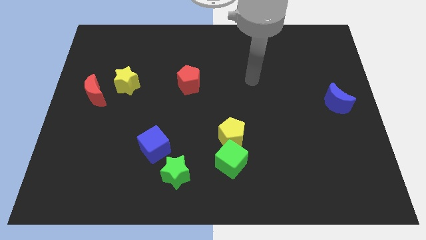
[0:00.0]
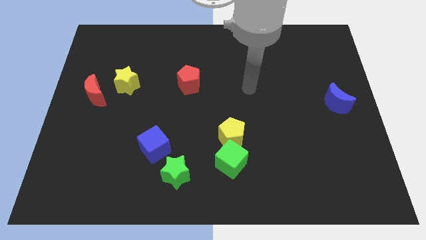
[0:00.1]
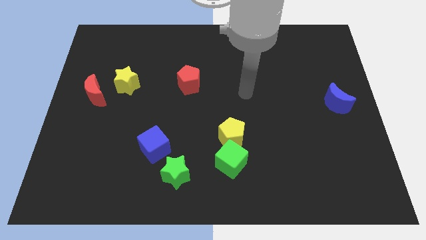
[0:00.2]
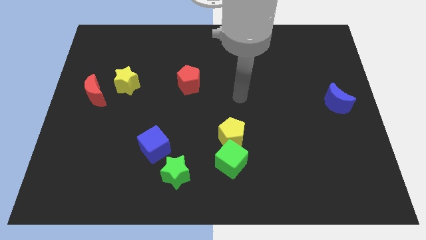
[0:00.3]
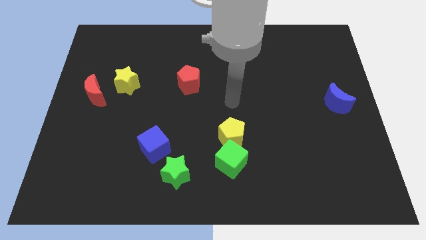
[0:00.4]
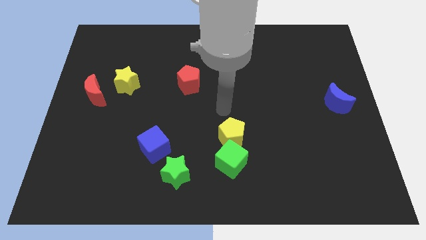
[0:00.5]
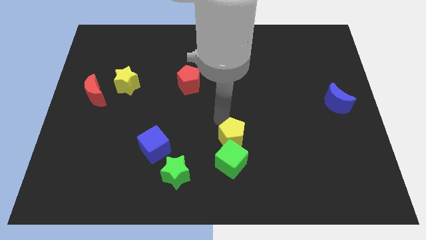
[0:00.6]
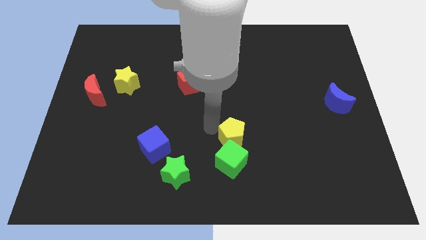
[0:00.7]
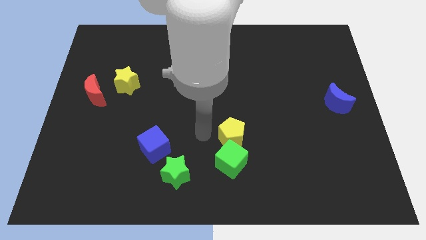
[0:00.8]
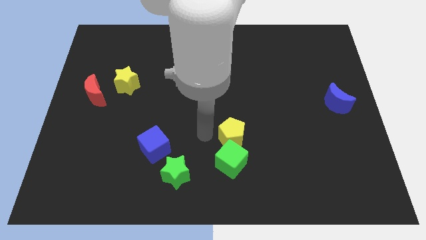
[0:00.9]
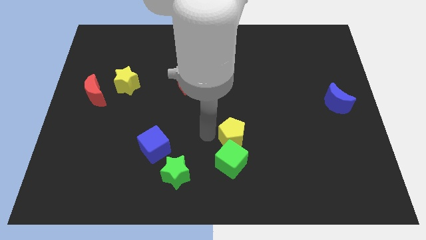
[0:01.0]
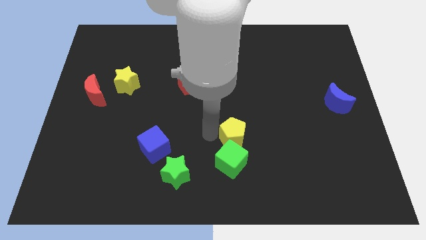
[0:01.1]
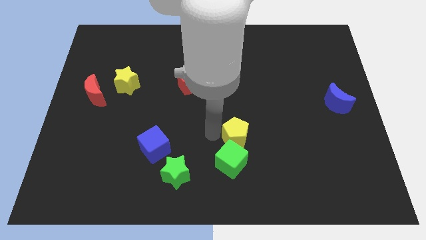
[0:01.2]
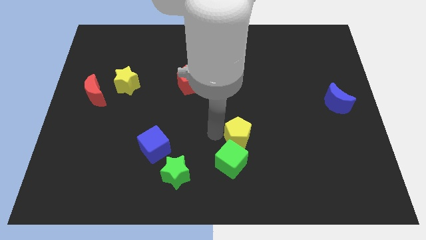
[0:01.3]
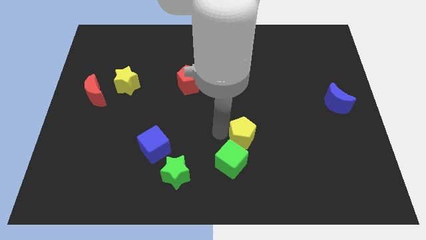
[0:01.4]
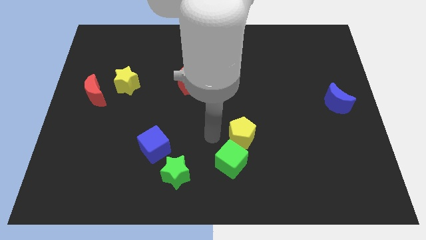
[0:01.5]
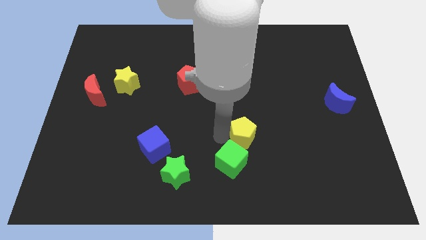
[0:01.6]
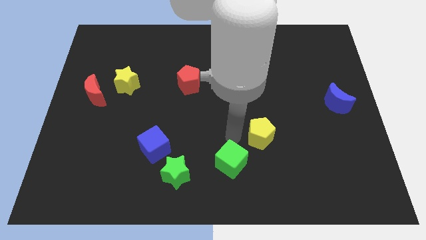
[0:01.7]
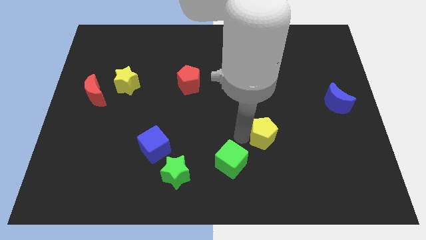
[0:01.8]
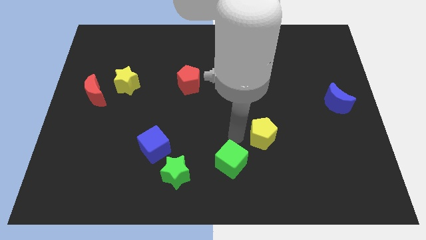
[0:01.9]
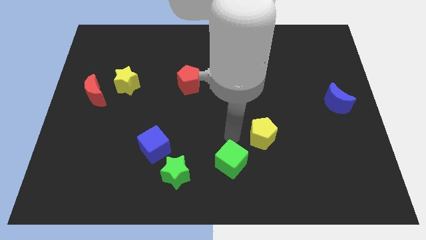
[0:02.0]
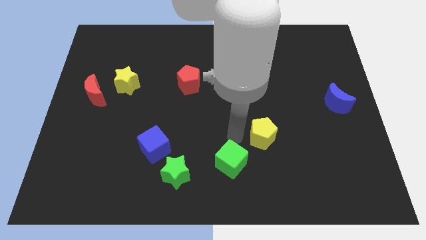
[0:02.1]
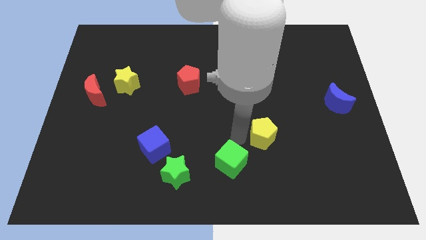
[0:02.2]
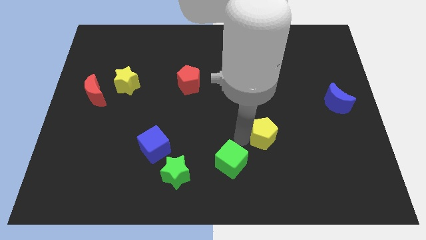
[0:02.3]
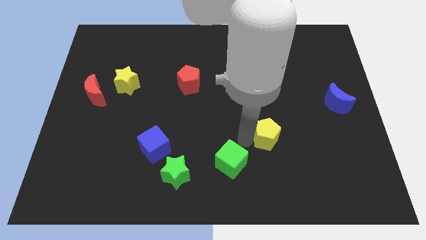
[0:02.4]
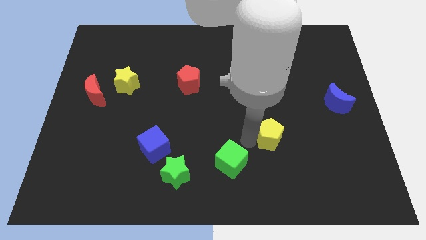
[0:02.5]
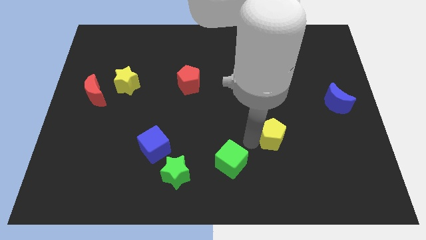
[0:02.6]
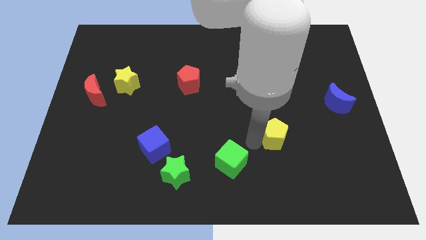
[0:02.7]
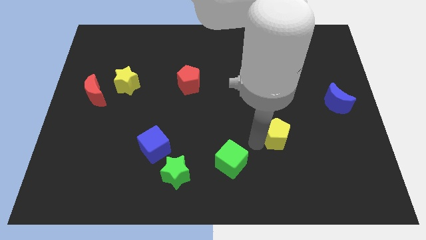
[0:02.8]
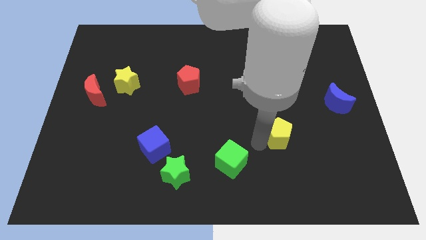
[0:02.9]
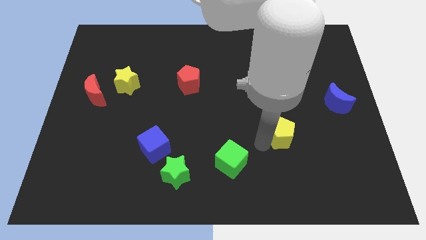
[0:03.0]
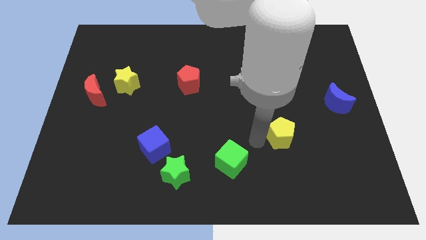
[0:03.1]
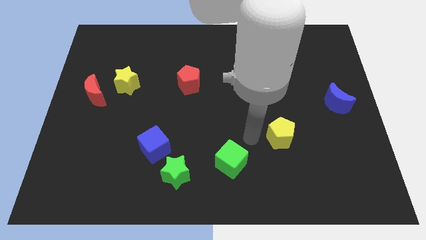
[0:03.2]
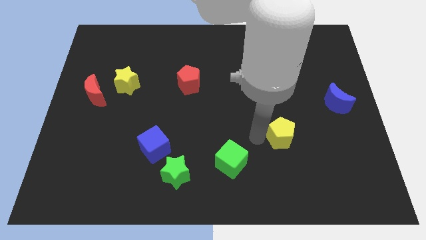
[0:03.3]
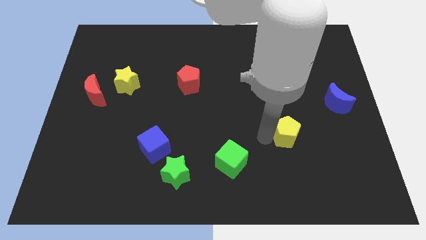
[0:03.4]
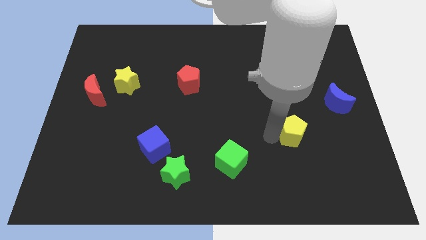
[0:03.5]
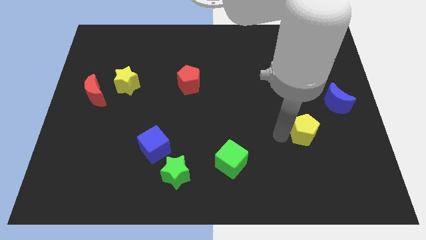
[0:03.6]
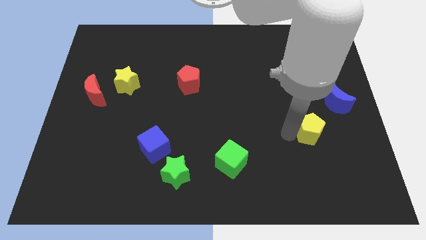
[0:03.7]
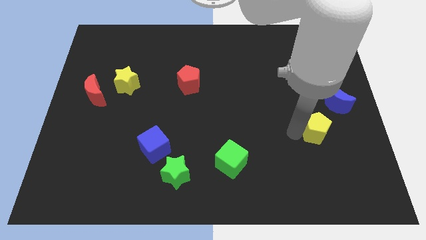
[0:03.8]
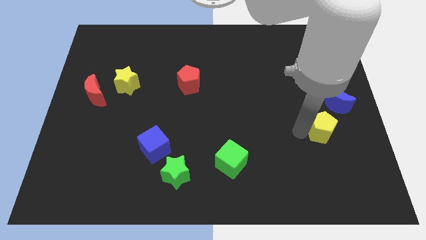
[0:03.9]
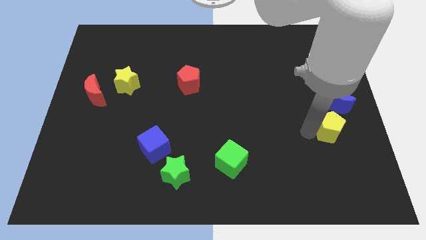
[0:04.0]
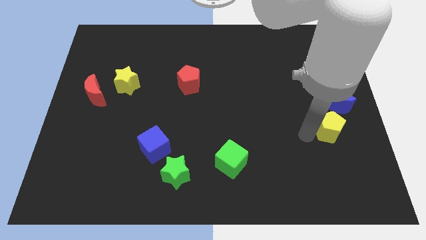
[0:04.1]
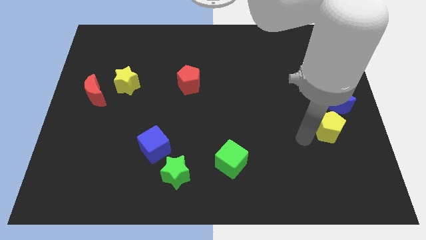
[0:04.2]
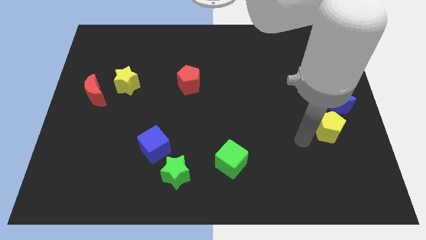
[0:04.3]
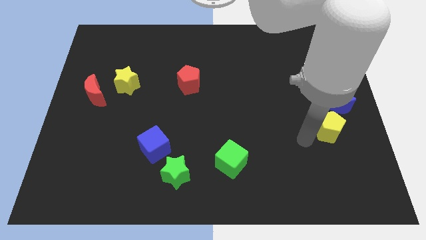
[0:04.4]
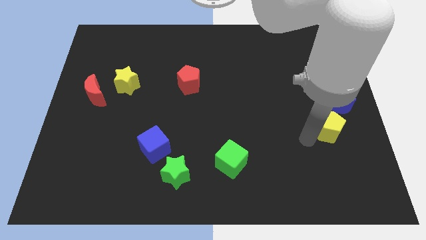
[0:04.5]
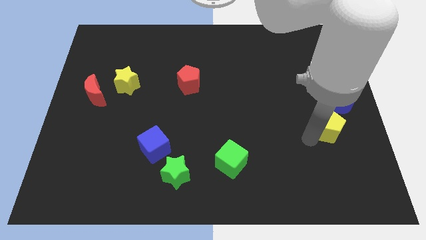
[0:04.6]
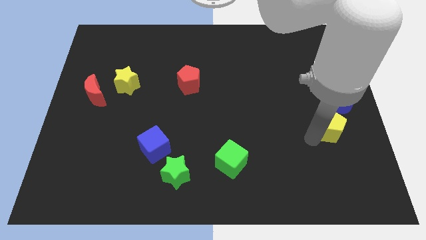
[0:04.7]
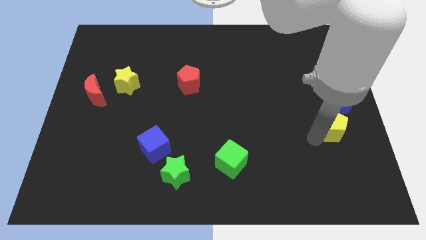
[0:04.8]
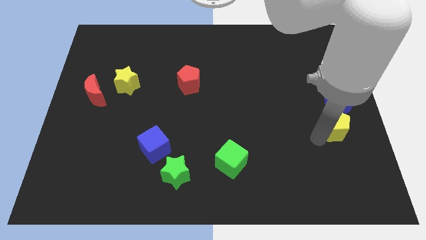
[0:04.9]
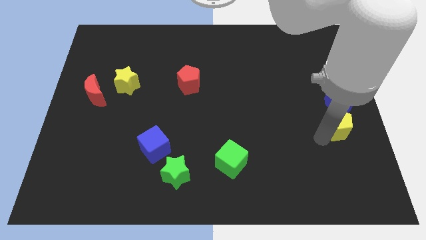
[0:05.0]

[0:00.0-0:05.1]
put the yellow pentagon to the center right

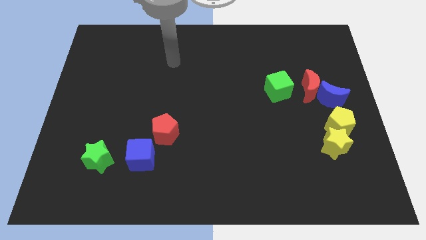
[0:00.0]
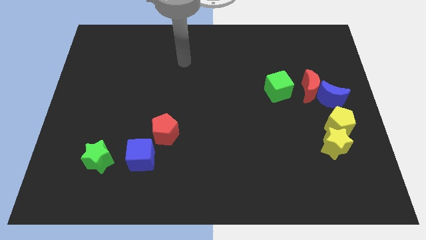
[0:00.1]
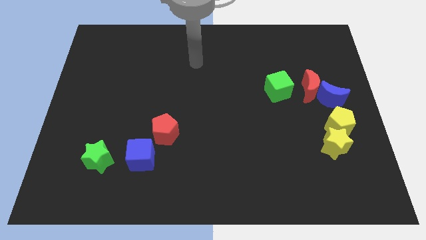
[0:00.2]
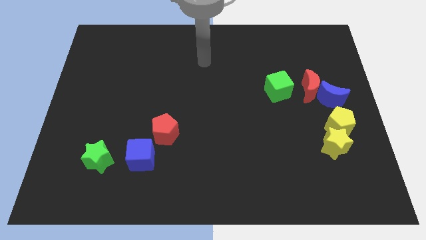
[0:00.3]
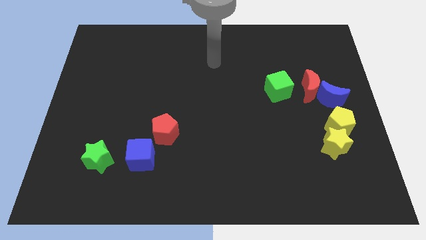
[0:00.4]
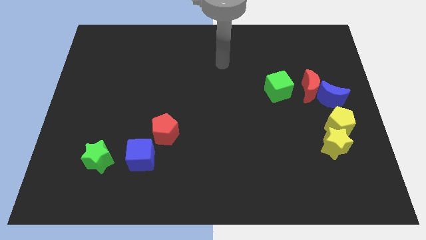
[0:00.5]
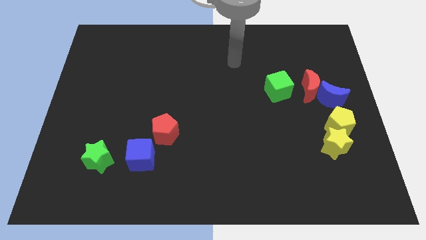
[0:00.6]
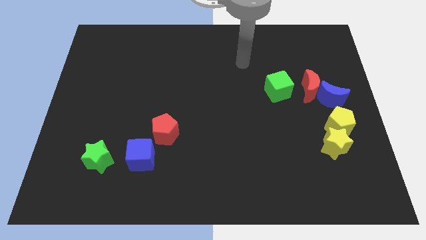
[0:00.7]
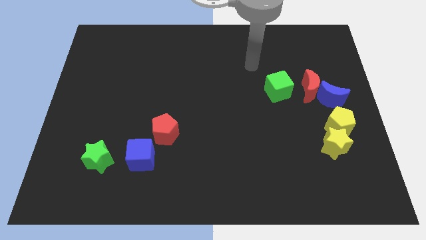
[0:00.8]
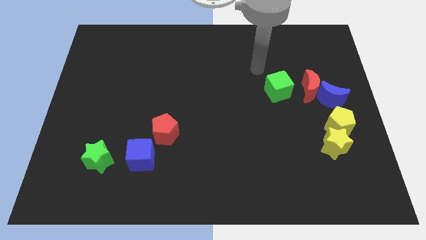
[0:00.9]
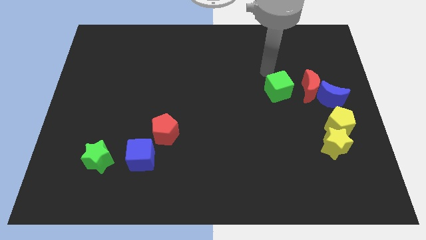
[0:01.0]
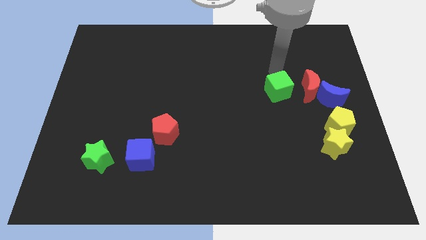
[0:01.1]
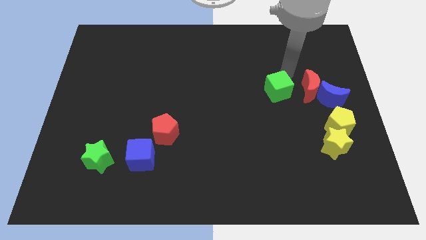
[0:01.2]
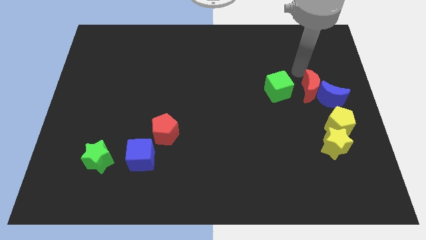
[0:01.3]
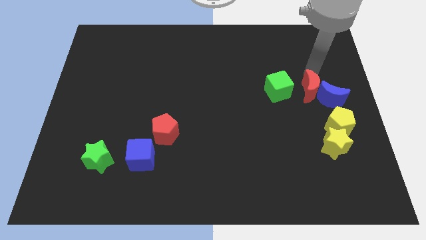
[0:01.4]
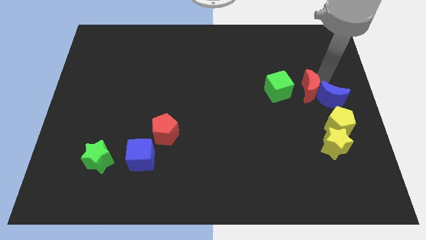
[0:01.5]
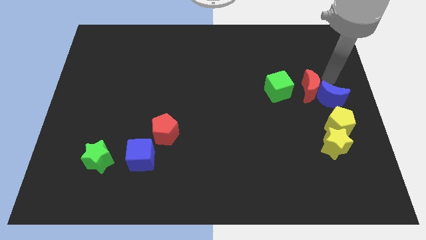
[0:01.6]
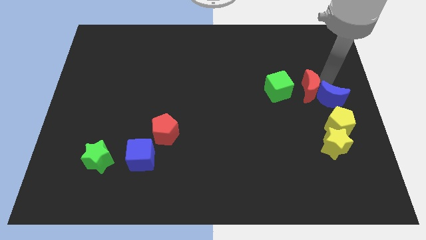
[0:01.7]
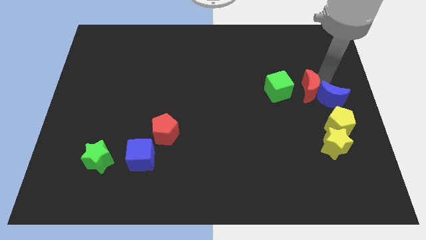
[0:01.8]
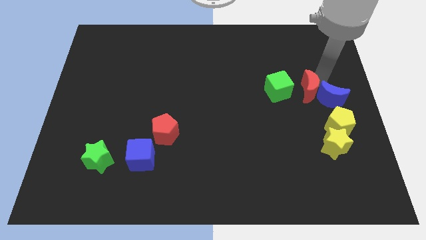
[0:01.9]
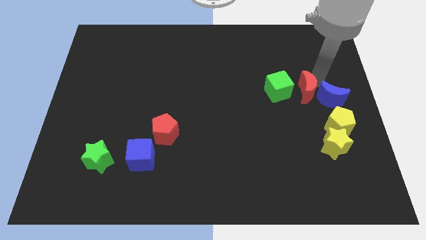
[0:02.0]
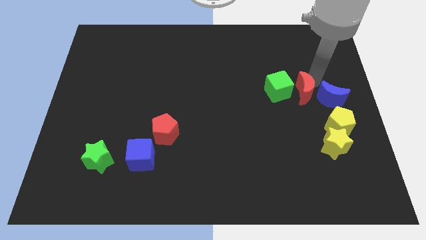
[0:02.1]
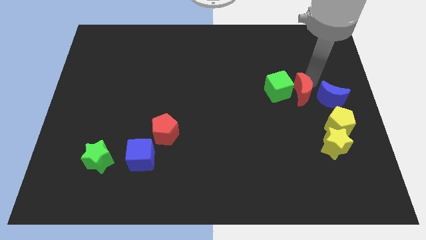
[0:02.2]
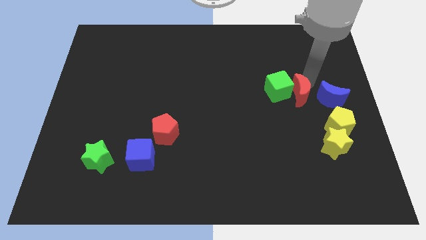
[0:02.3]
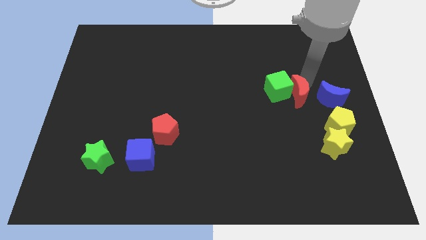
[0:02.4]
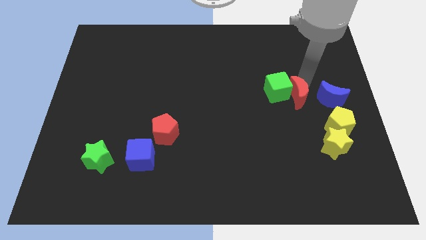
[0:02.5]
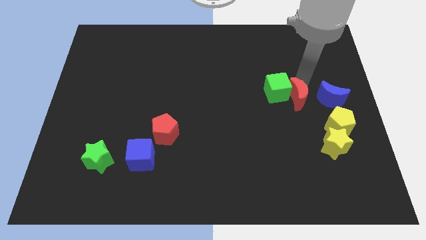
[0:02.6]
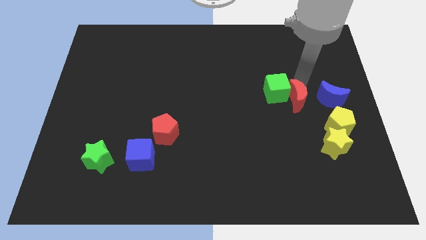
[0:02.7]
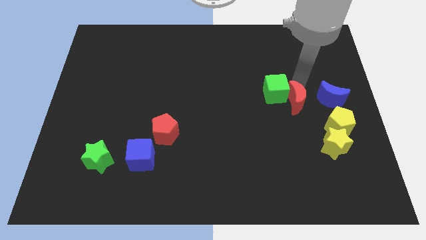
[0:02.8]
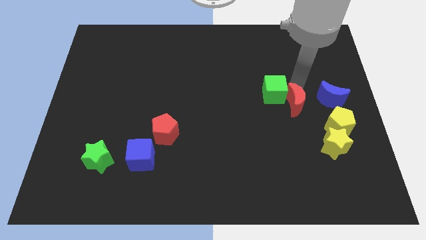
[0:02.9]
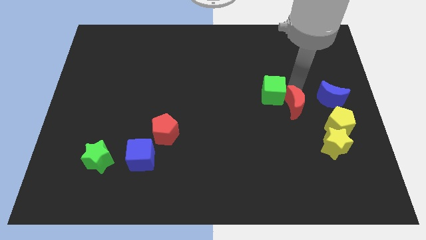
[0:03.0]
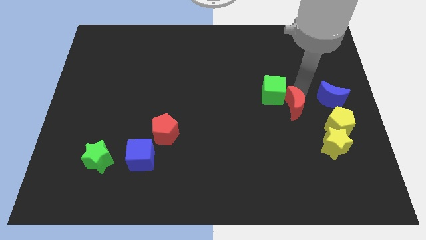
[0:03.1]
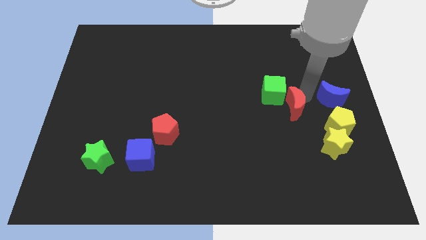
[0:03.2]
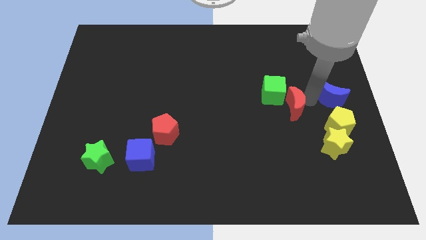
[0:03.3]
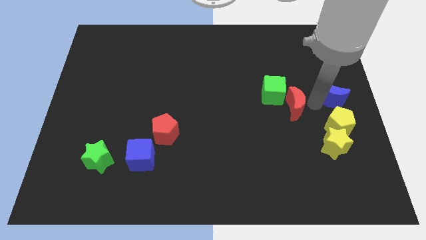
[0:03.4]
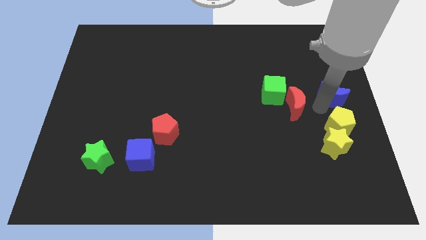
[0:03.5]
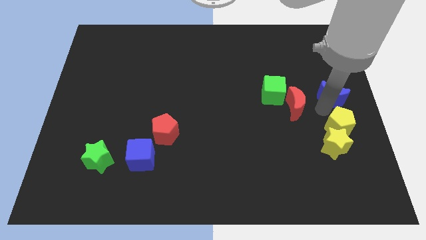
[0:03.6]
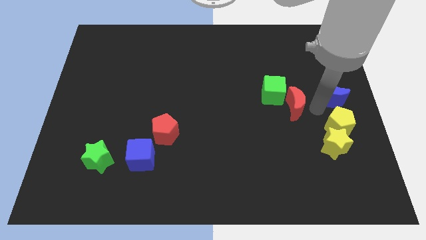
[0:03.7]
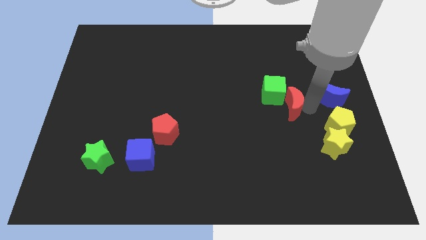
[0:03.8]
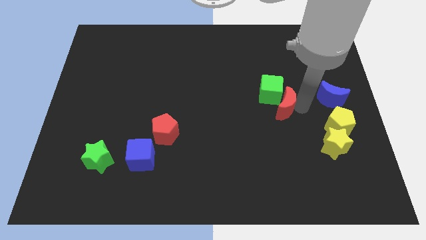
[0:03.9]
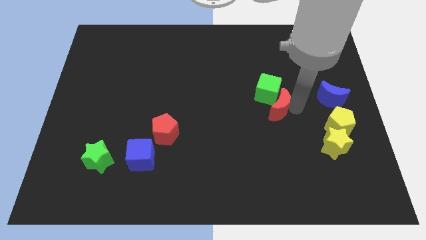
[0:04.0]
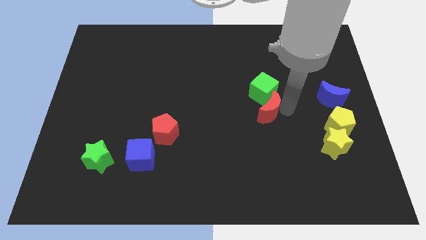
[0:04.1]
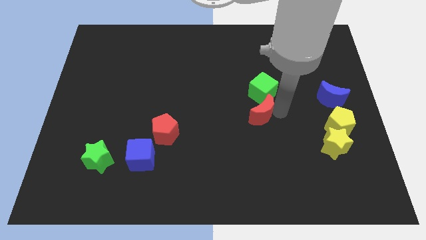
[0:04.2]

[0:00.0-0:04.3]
slide the red moon to the middle
